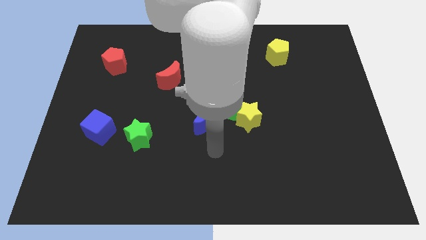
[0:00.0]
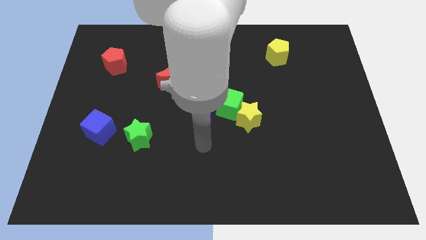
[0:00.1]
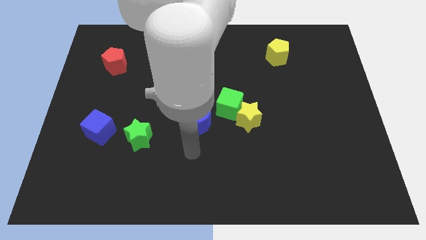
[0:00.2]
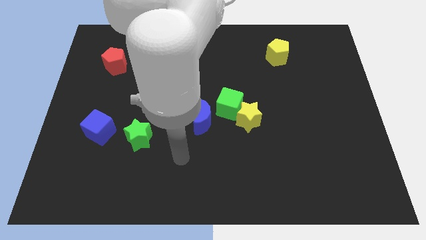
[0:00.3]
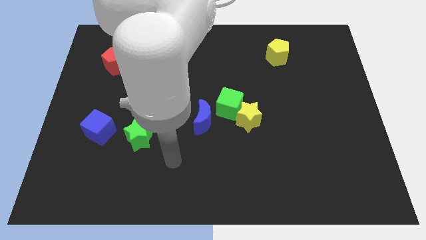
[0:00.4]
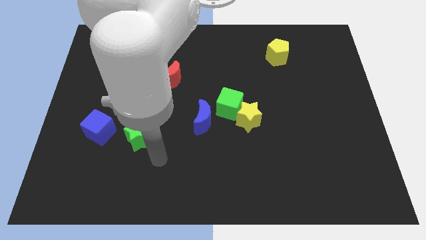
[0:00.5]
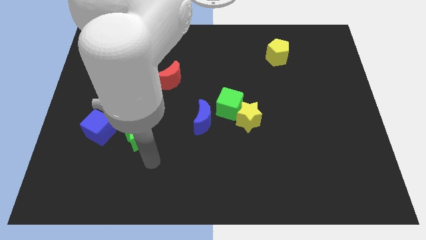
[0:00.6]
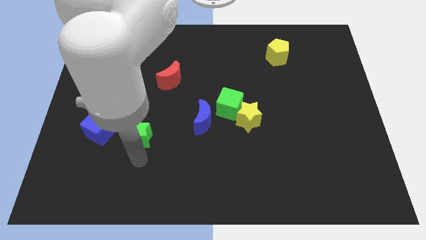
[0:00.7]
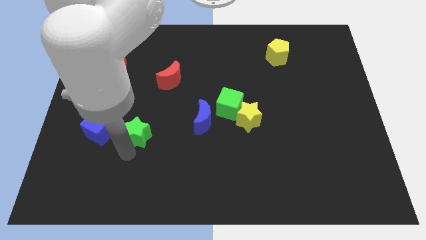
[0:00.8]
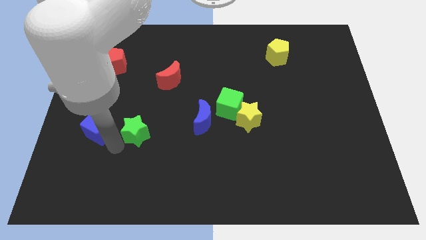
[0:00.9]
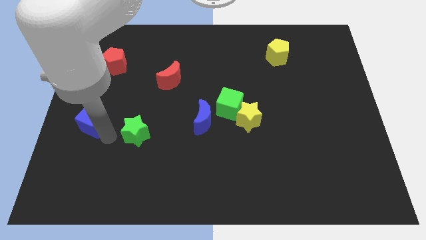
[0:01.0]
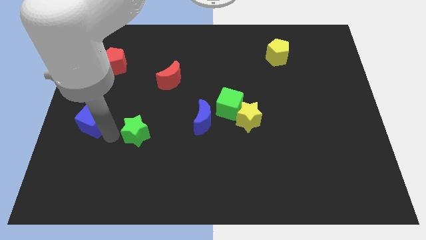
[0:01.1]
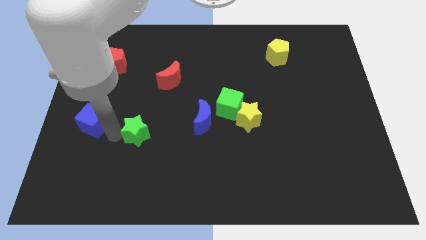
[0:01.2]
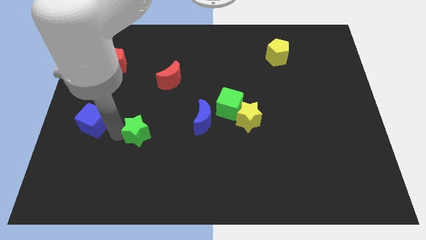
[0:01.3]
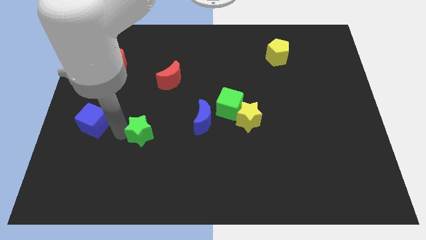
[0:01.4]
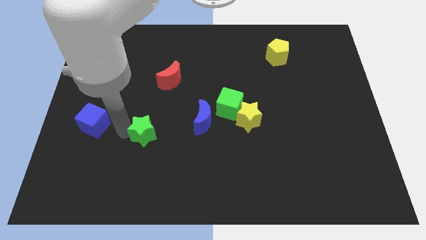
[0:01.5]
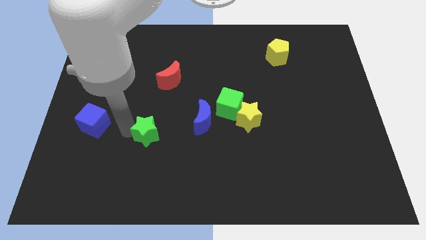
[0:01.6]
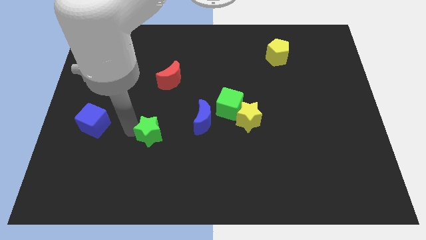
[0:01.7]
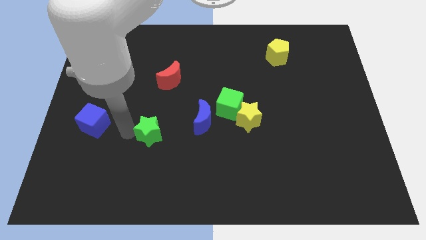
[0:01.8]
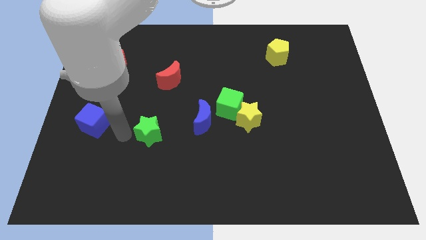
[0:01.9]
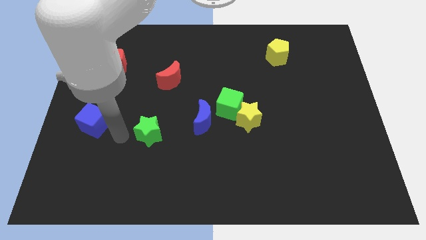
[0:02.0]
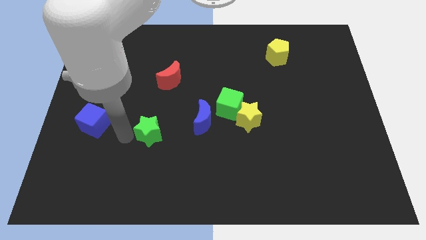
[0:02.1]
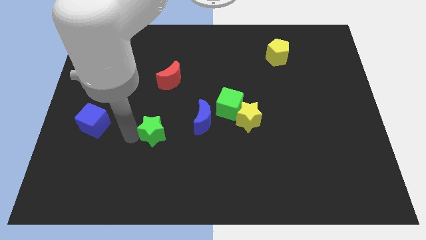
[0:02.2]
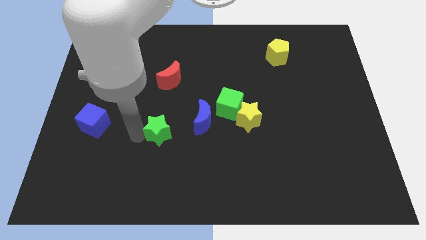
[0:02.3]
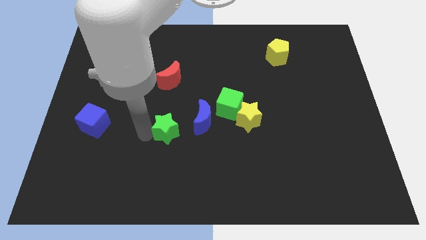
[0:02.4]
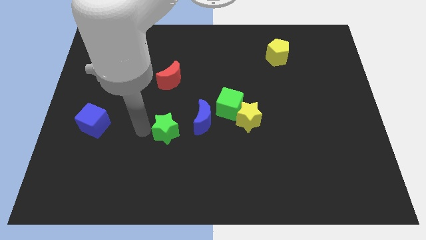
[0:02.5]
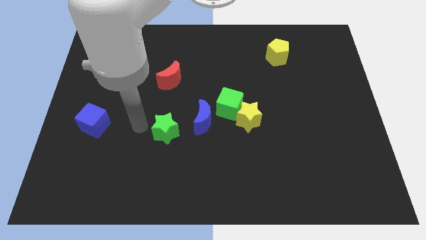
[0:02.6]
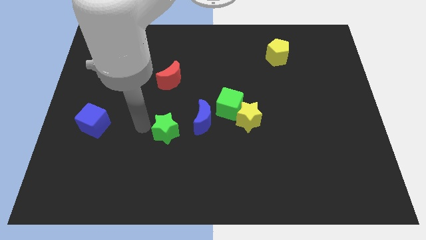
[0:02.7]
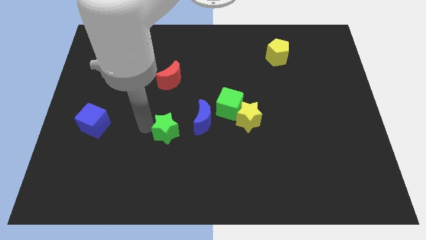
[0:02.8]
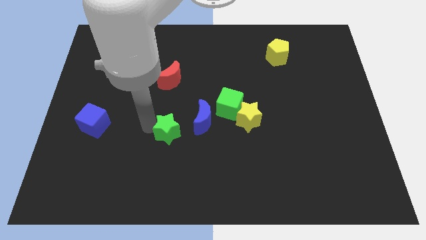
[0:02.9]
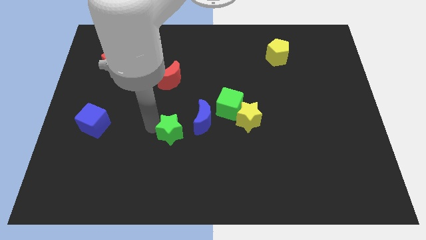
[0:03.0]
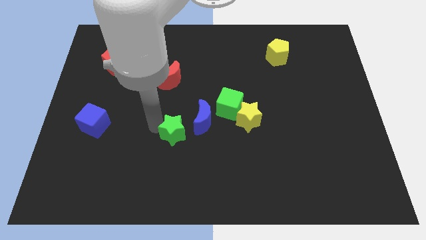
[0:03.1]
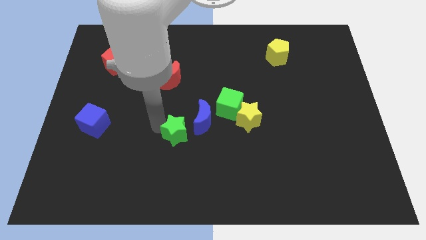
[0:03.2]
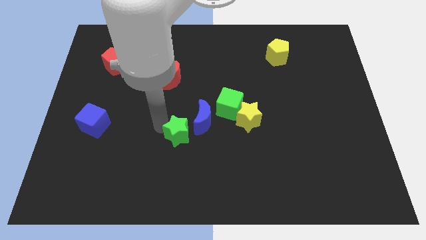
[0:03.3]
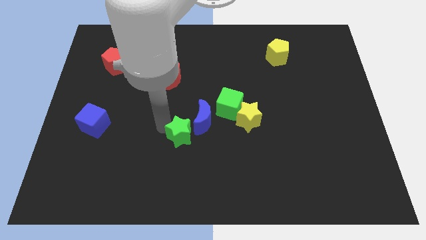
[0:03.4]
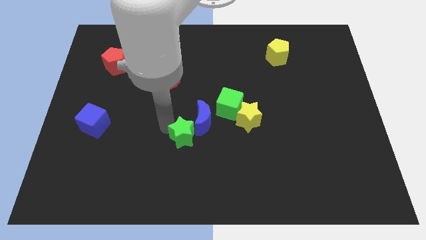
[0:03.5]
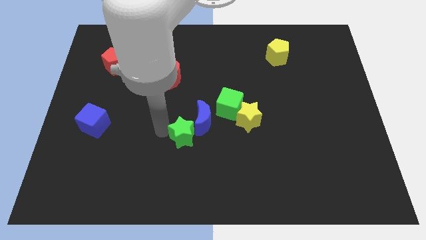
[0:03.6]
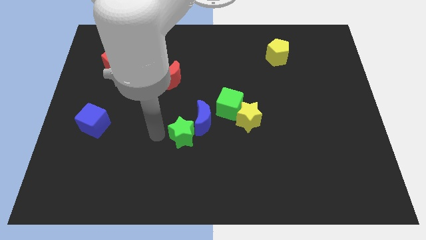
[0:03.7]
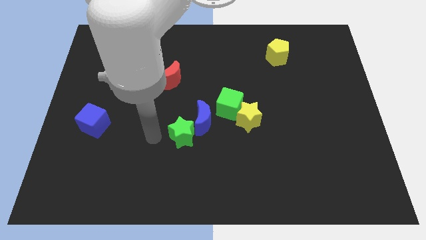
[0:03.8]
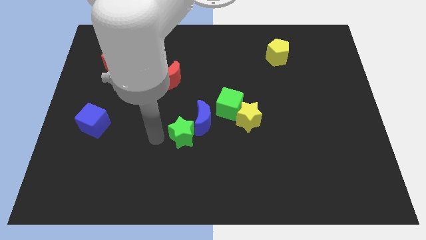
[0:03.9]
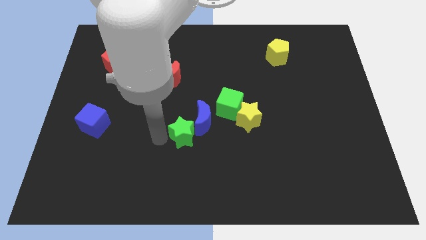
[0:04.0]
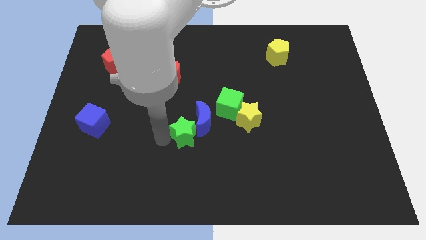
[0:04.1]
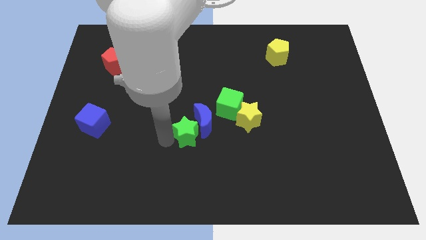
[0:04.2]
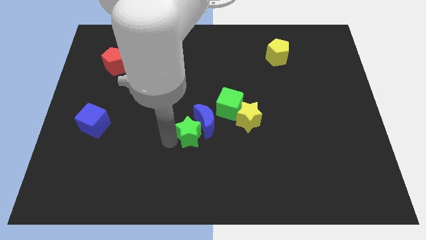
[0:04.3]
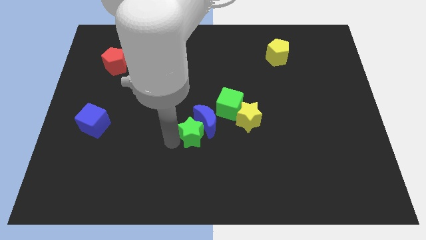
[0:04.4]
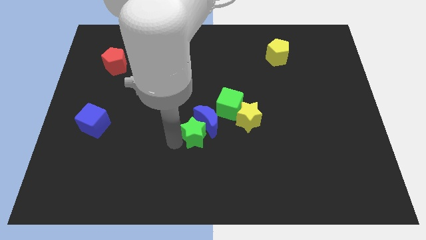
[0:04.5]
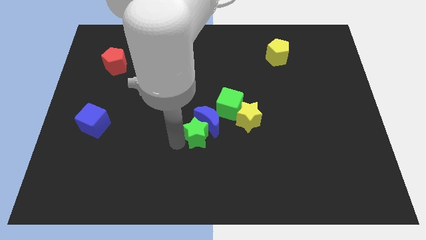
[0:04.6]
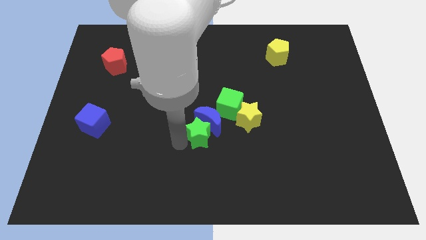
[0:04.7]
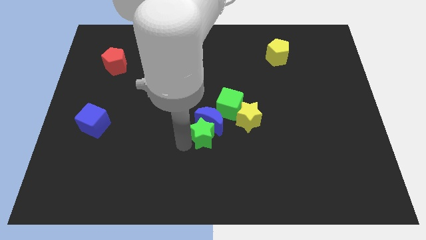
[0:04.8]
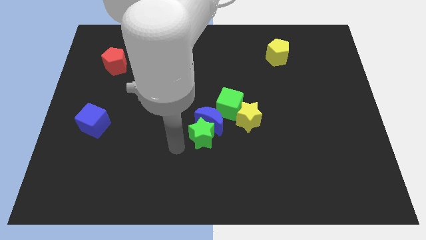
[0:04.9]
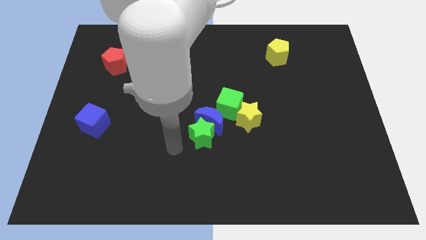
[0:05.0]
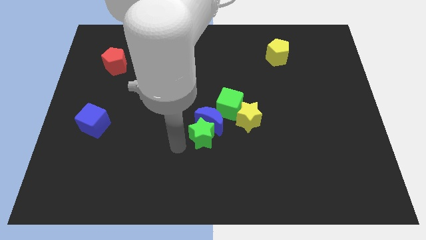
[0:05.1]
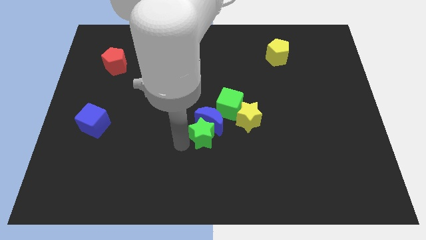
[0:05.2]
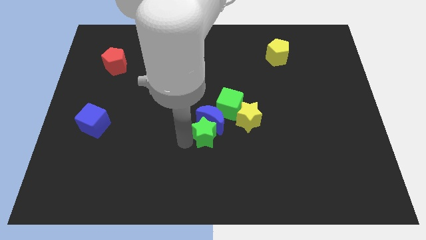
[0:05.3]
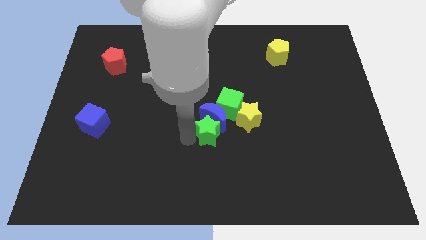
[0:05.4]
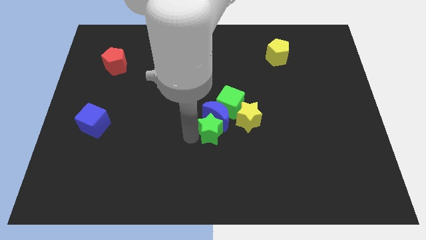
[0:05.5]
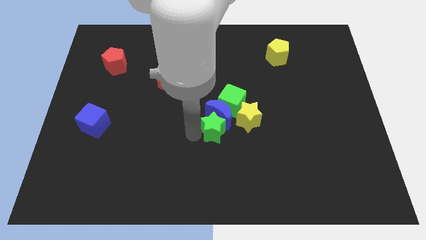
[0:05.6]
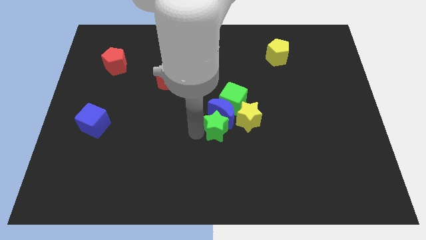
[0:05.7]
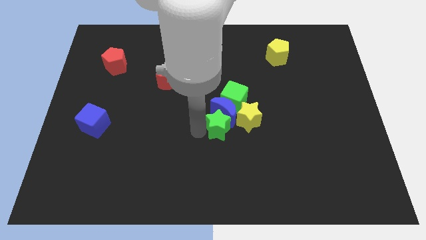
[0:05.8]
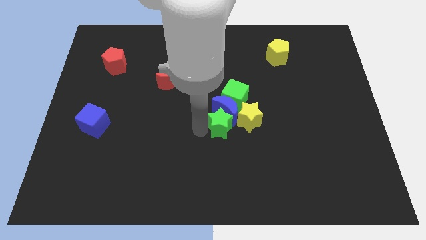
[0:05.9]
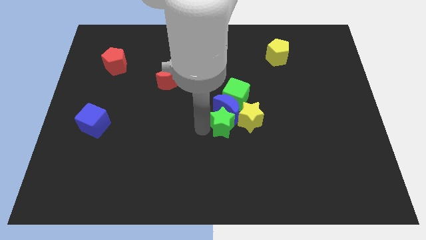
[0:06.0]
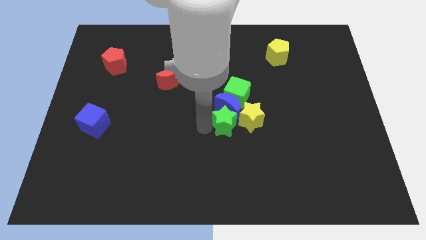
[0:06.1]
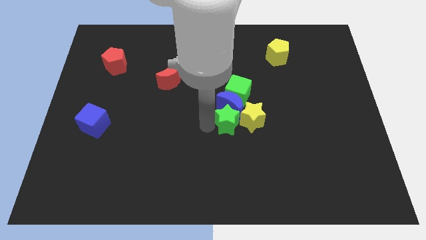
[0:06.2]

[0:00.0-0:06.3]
put the green star next to the yellow star

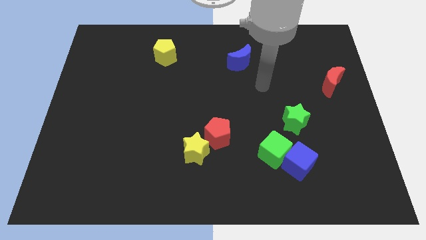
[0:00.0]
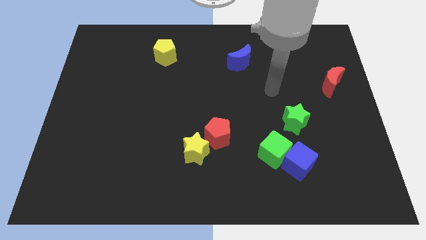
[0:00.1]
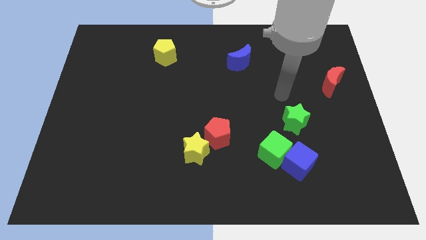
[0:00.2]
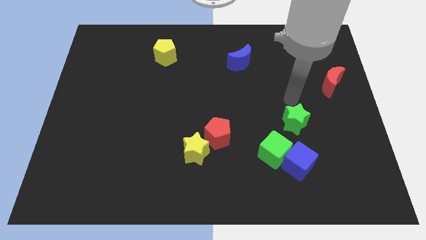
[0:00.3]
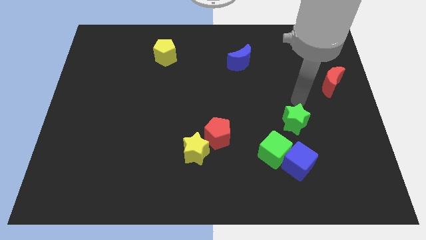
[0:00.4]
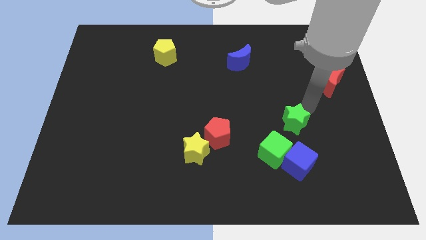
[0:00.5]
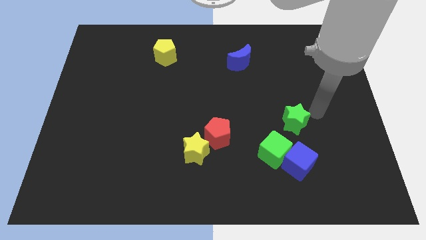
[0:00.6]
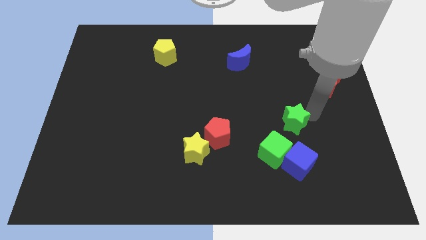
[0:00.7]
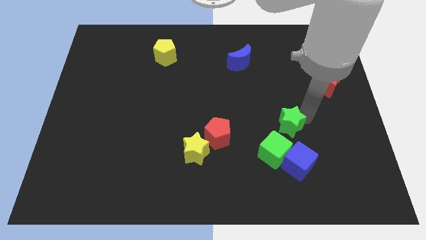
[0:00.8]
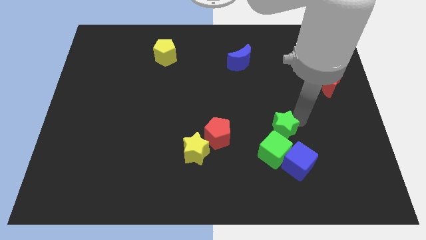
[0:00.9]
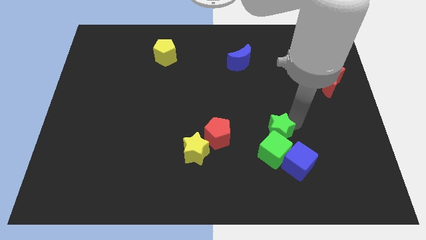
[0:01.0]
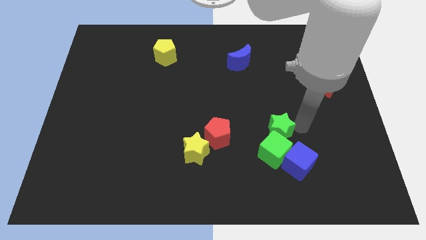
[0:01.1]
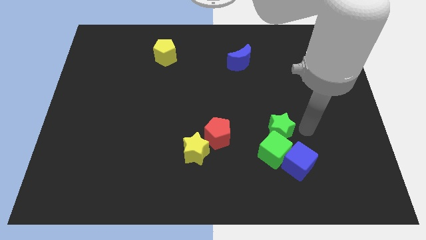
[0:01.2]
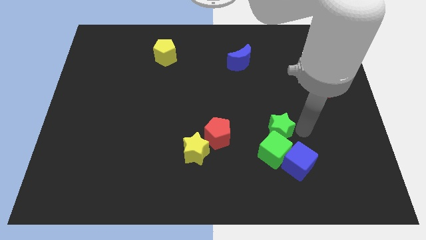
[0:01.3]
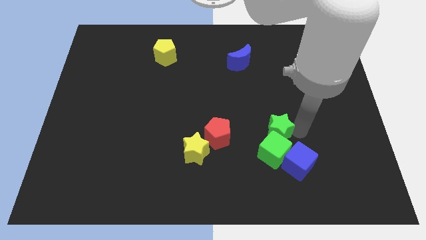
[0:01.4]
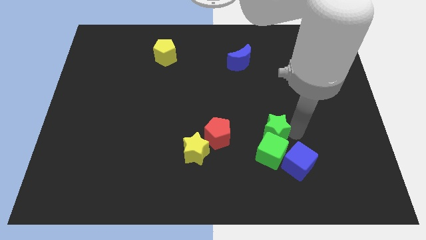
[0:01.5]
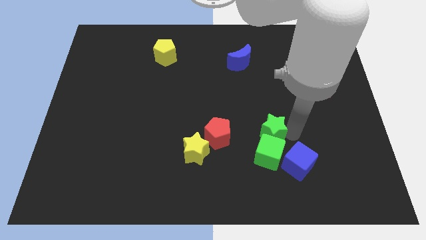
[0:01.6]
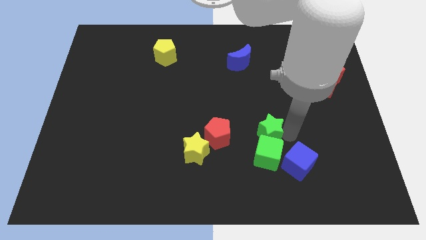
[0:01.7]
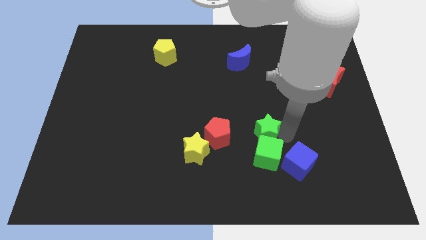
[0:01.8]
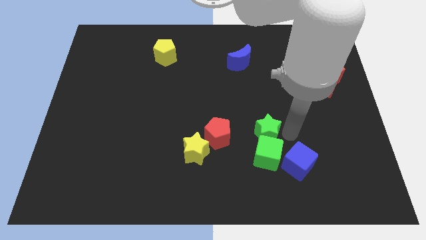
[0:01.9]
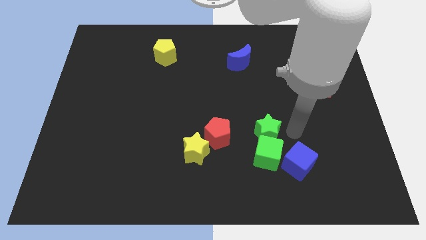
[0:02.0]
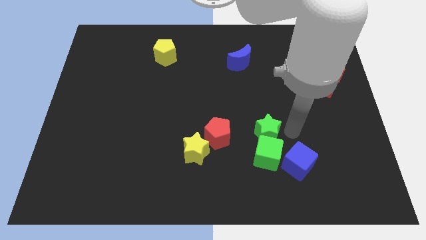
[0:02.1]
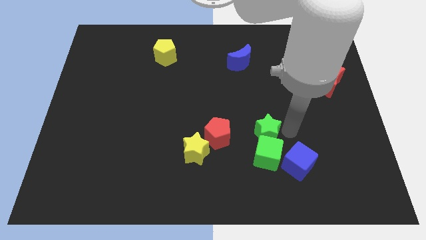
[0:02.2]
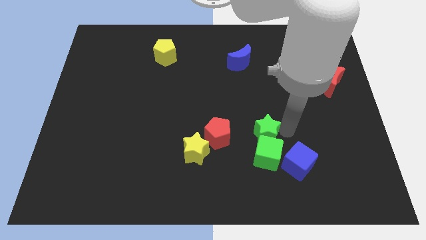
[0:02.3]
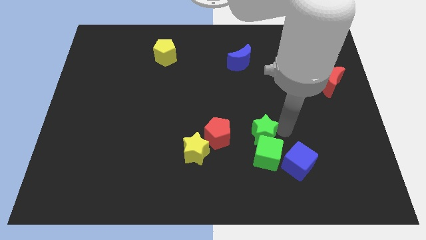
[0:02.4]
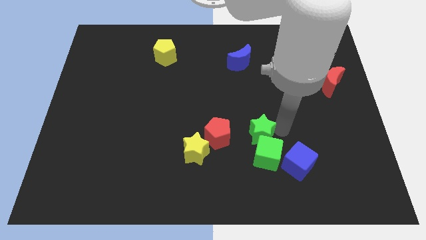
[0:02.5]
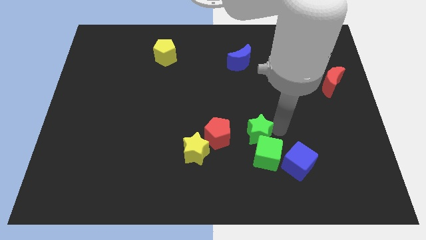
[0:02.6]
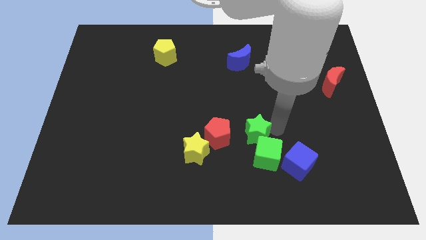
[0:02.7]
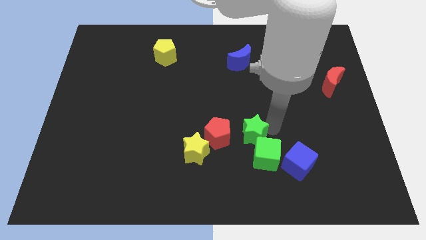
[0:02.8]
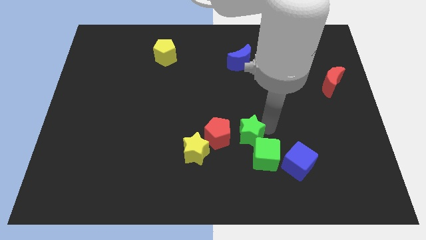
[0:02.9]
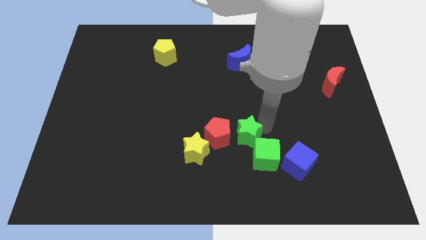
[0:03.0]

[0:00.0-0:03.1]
move the green star close to the red pentagon
